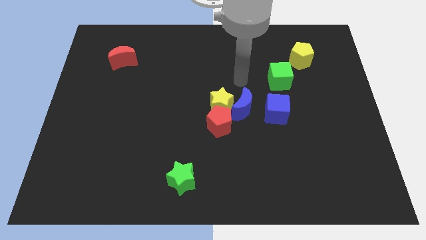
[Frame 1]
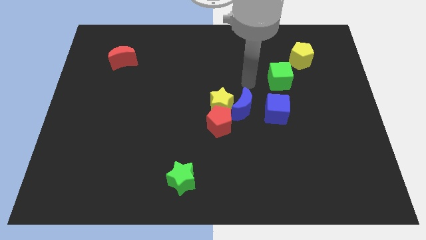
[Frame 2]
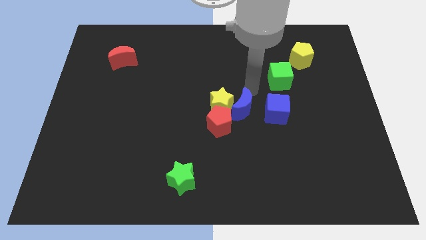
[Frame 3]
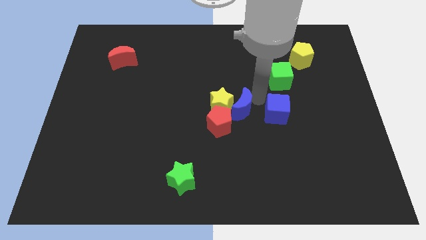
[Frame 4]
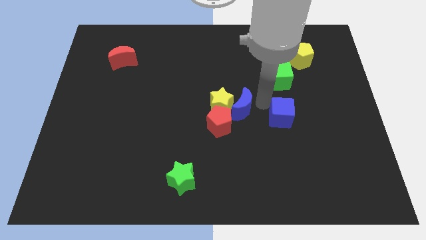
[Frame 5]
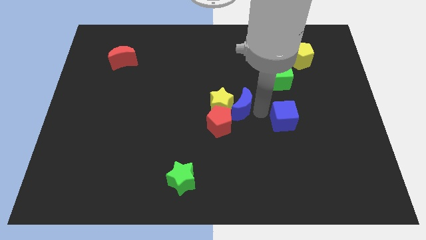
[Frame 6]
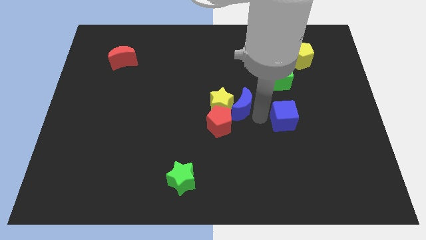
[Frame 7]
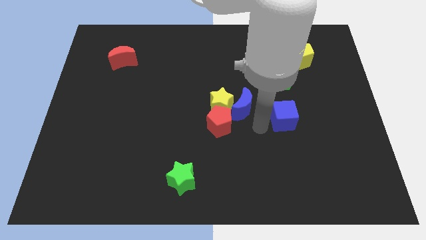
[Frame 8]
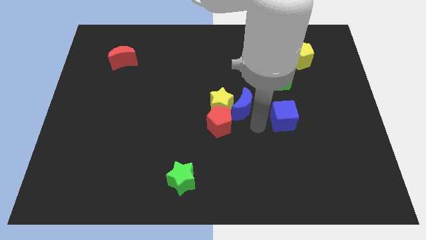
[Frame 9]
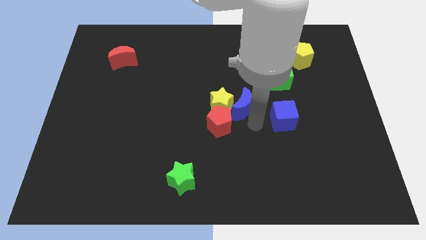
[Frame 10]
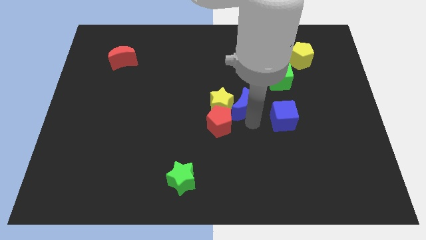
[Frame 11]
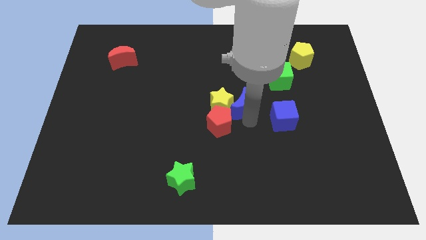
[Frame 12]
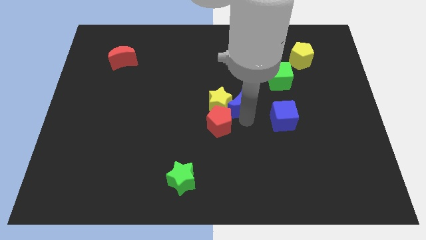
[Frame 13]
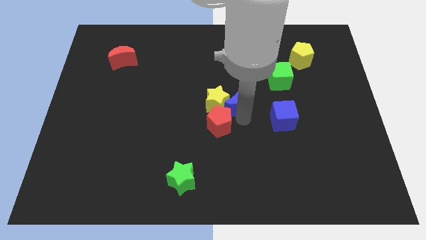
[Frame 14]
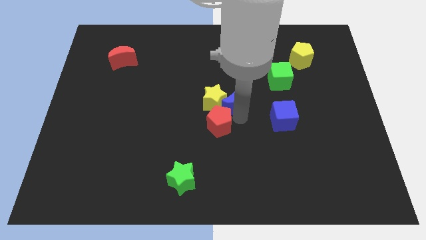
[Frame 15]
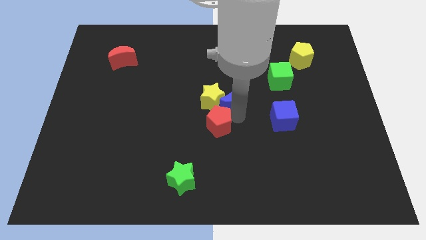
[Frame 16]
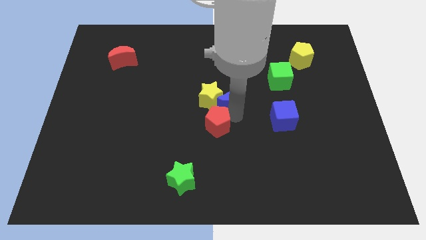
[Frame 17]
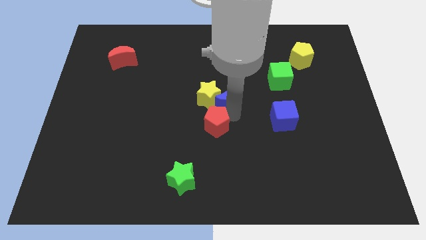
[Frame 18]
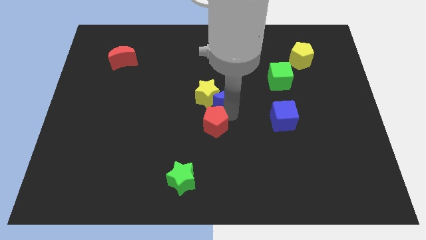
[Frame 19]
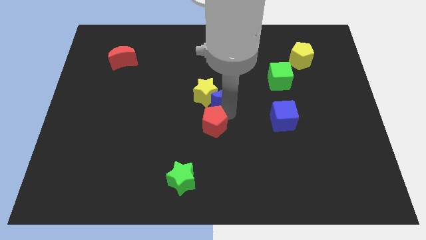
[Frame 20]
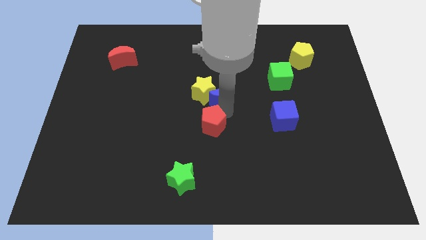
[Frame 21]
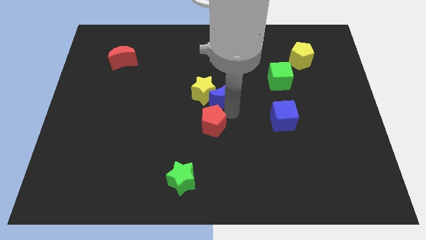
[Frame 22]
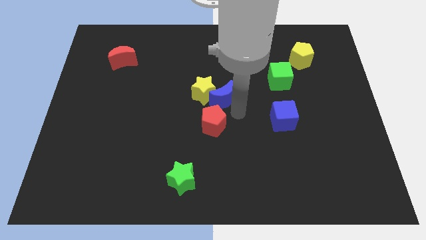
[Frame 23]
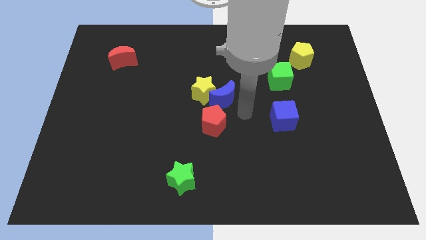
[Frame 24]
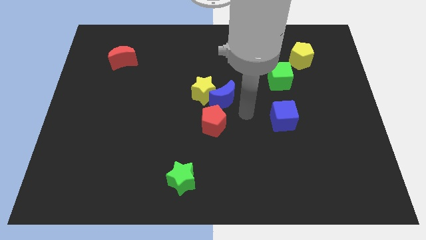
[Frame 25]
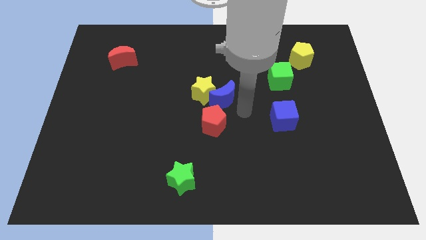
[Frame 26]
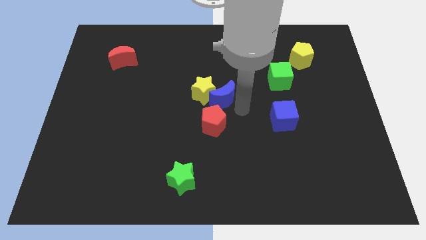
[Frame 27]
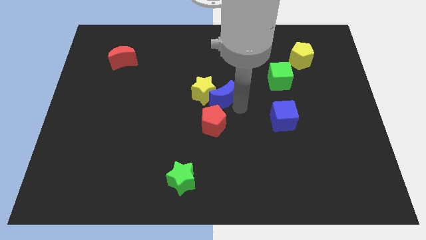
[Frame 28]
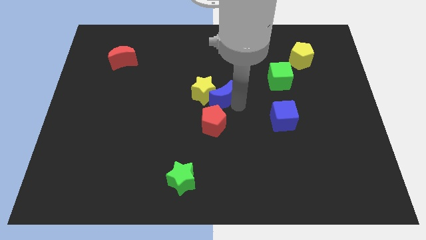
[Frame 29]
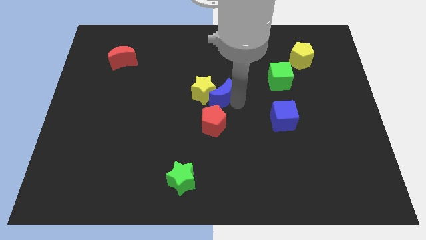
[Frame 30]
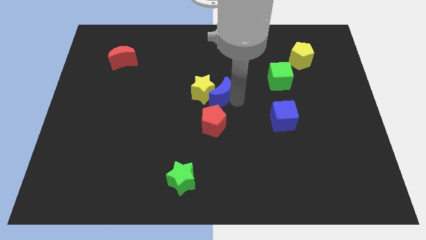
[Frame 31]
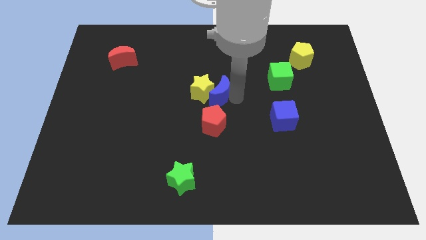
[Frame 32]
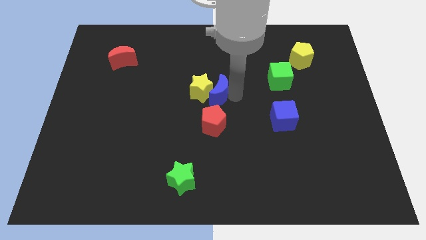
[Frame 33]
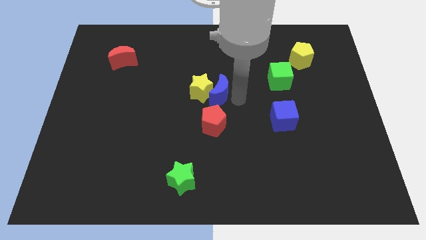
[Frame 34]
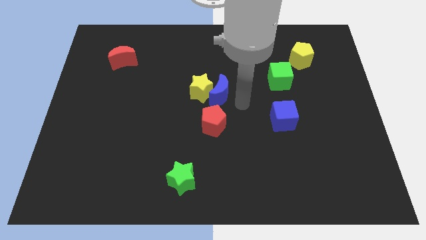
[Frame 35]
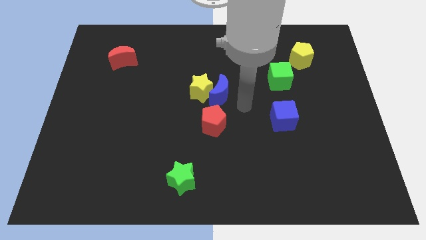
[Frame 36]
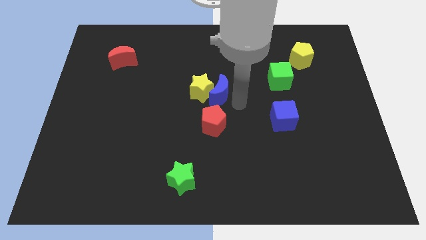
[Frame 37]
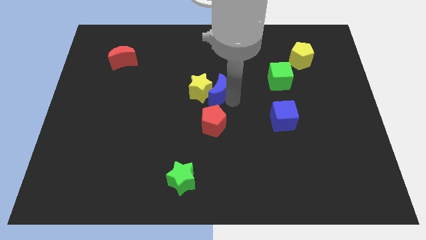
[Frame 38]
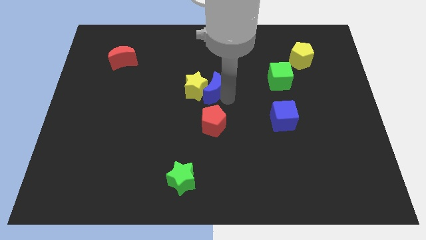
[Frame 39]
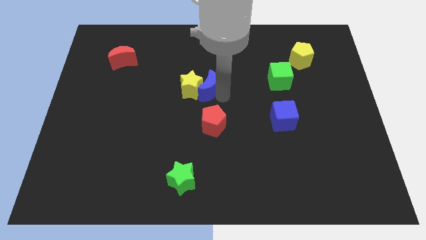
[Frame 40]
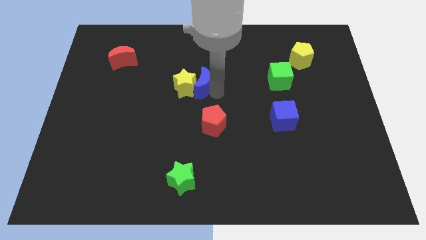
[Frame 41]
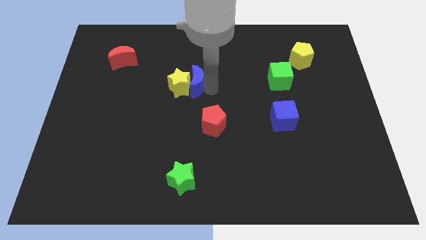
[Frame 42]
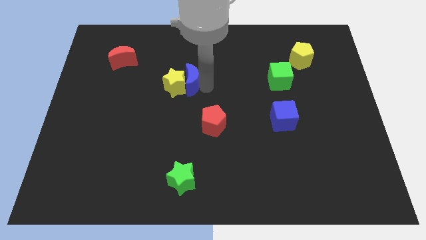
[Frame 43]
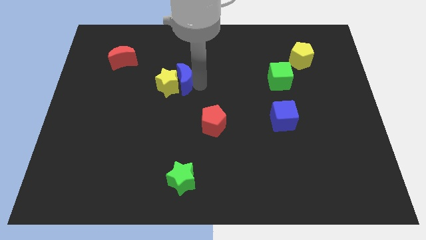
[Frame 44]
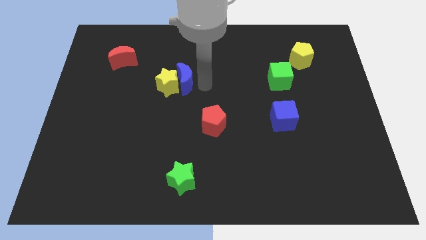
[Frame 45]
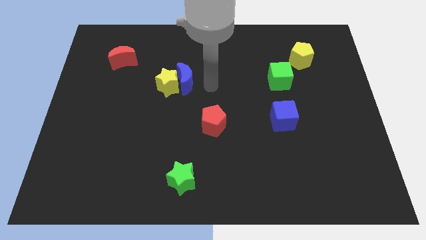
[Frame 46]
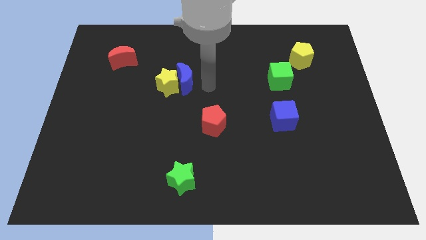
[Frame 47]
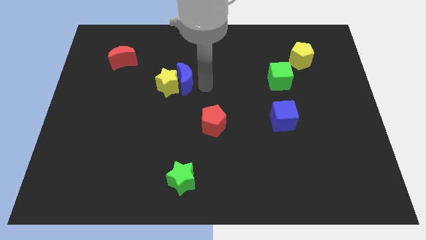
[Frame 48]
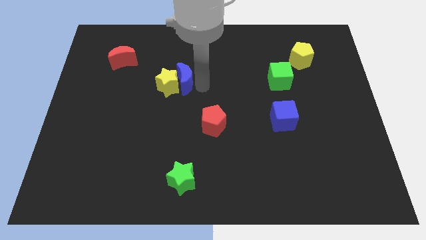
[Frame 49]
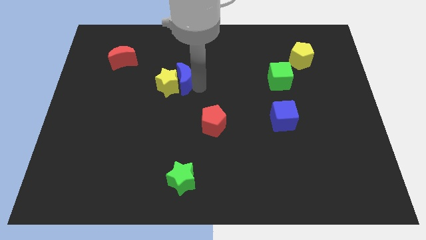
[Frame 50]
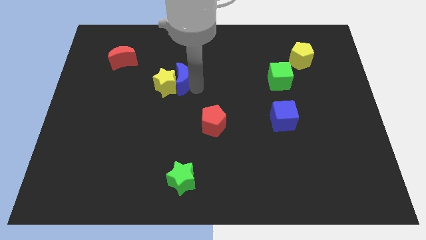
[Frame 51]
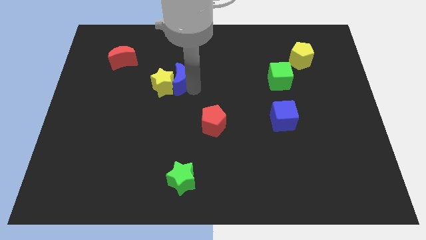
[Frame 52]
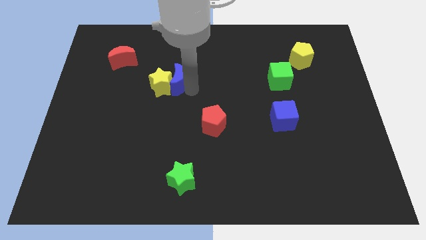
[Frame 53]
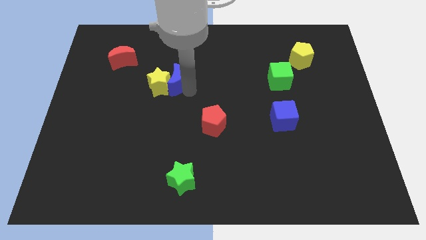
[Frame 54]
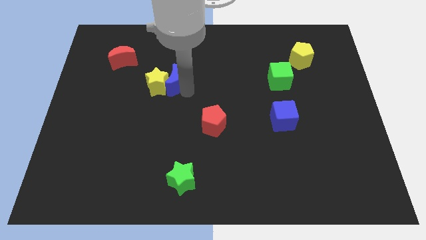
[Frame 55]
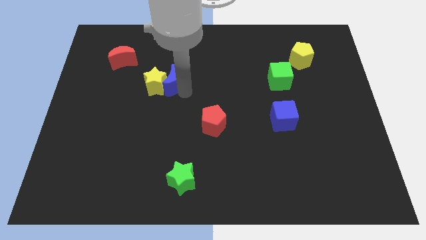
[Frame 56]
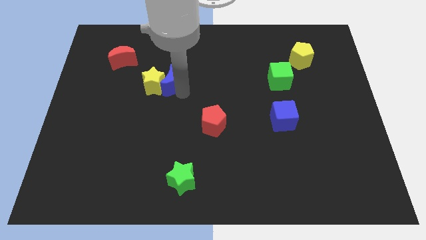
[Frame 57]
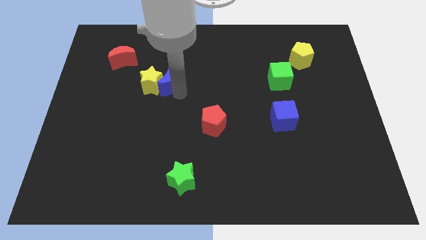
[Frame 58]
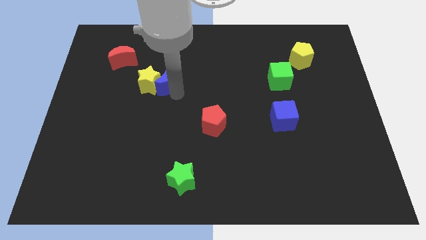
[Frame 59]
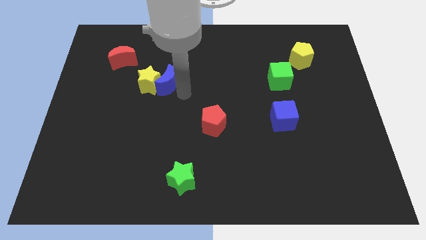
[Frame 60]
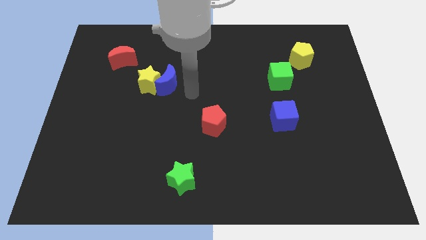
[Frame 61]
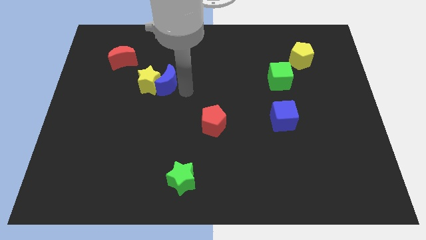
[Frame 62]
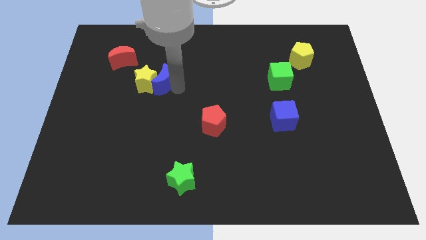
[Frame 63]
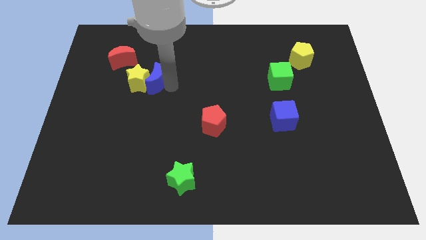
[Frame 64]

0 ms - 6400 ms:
put the blue moon diagonally down and to the right of the red moon
